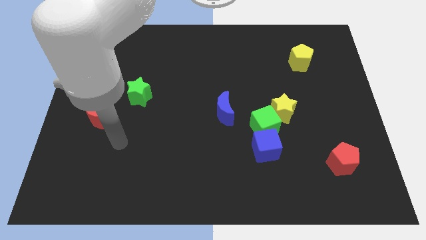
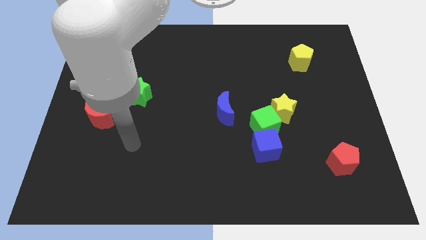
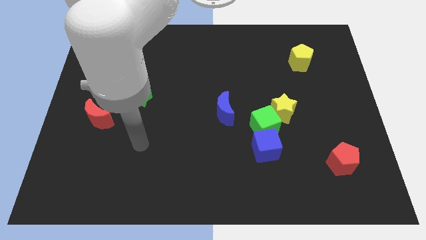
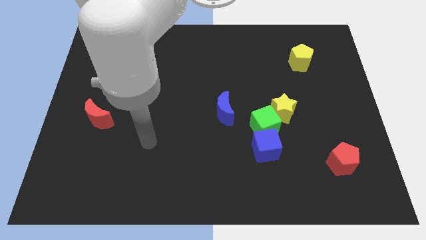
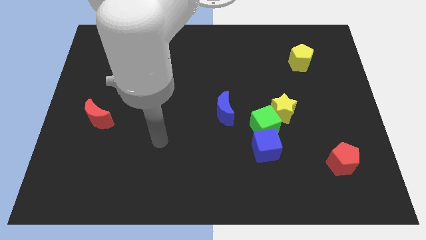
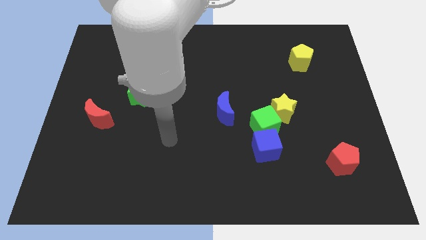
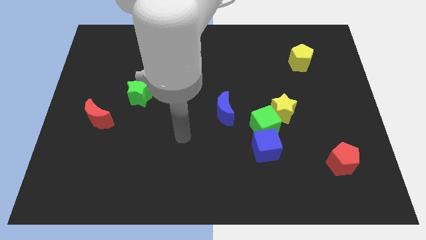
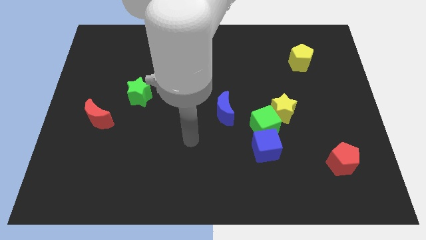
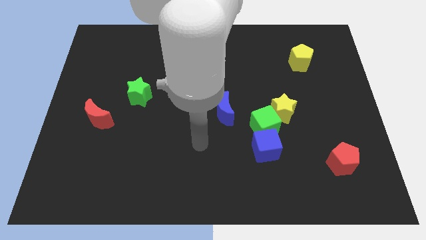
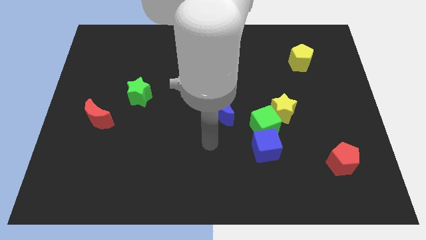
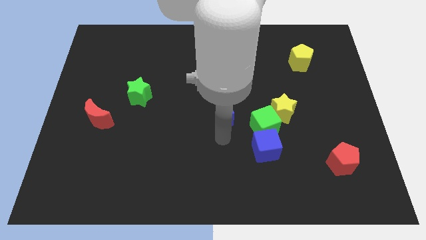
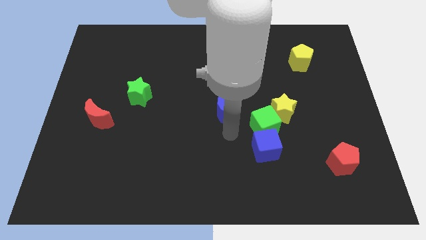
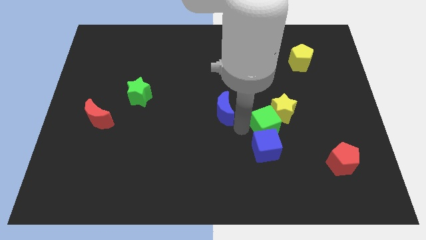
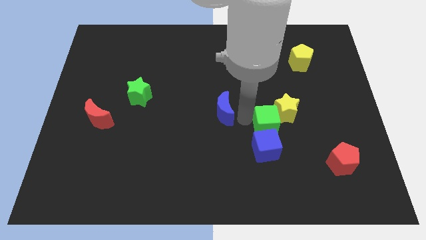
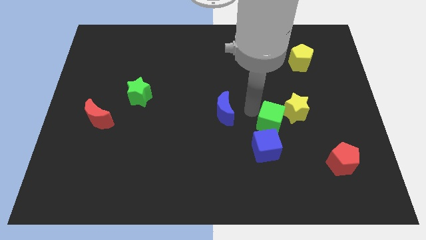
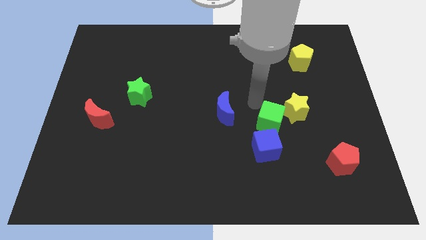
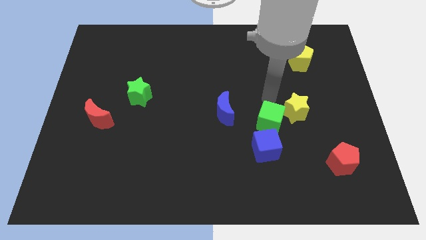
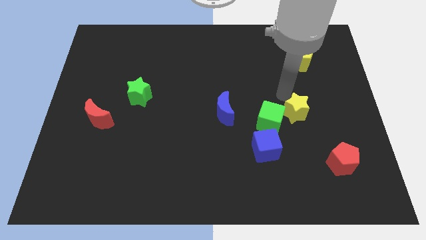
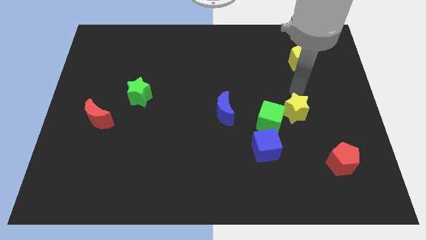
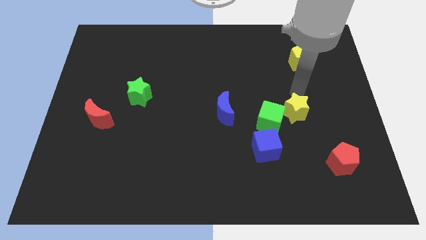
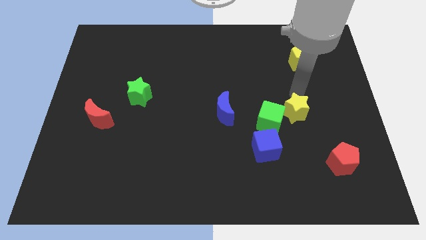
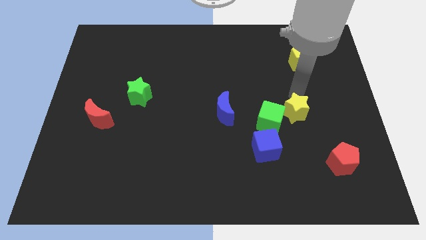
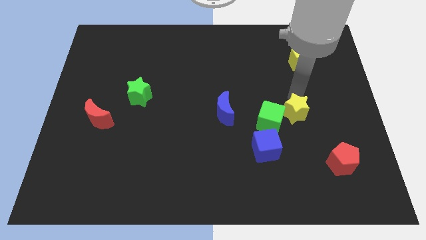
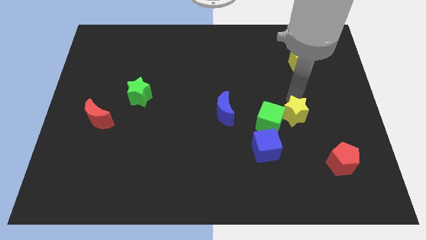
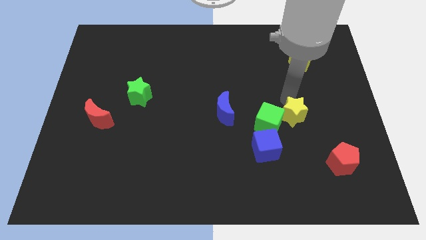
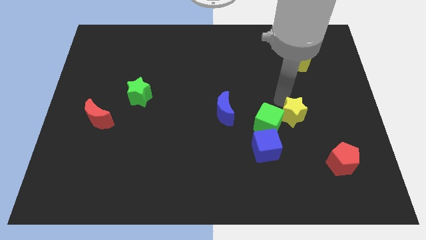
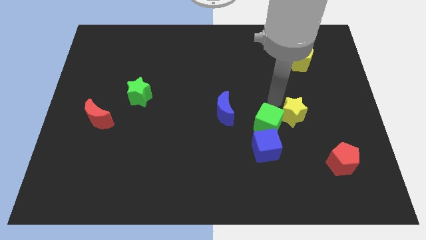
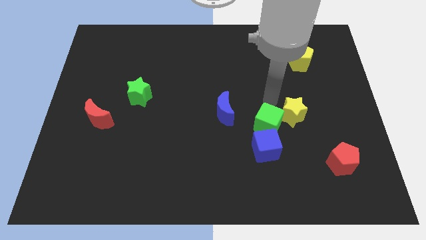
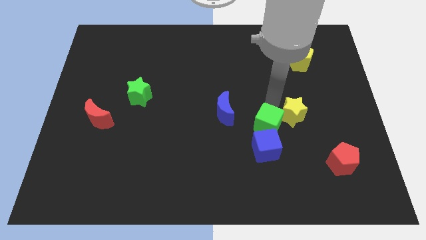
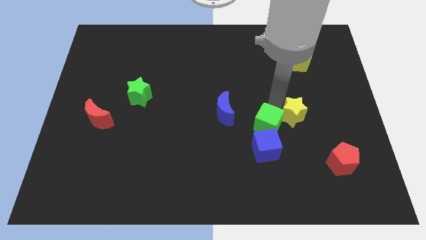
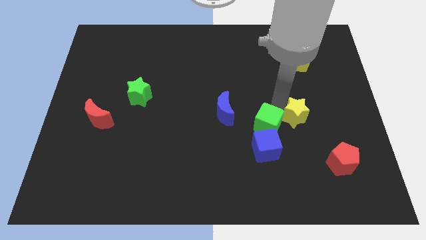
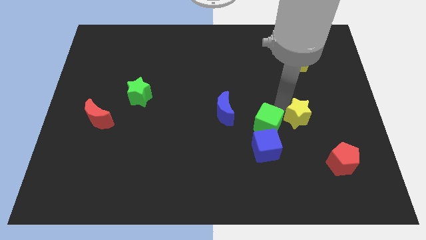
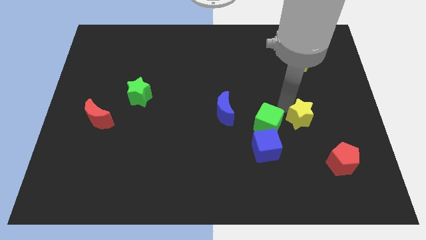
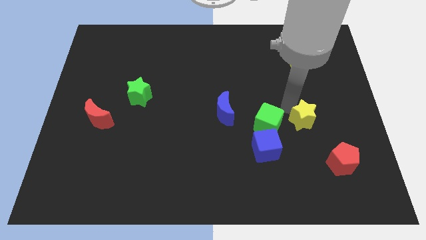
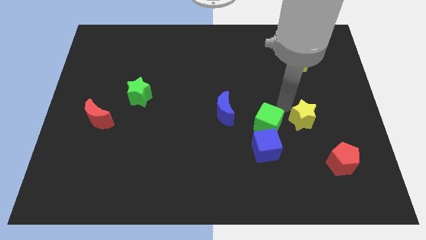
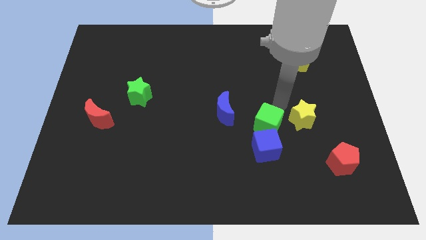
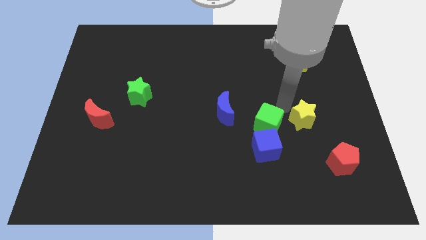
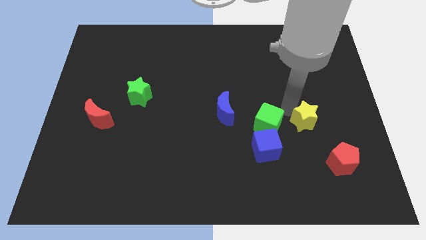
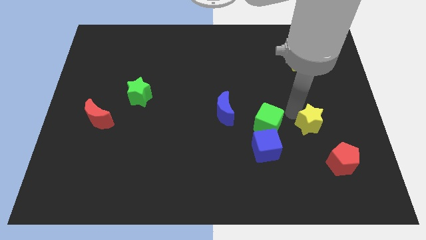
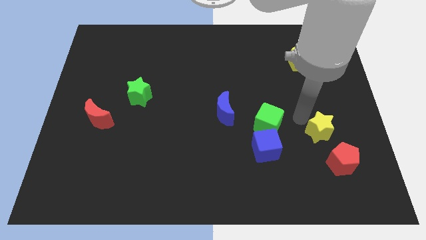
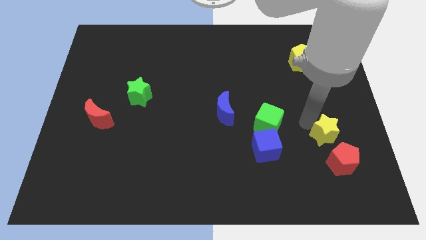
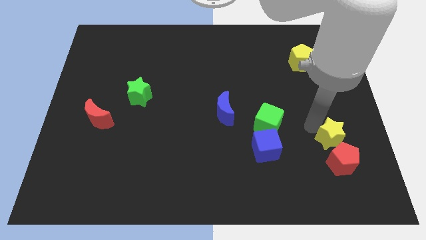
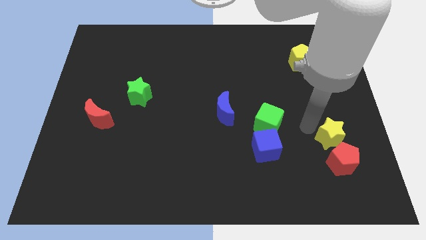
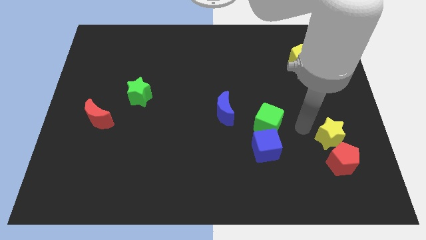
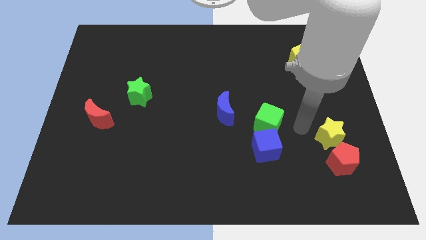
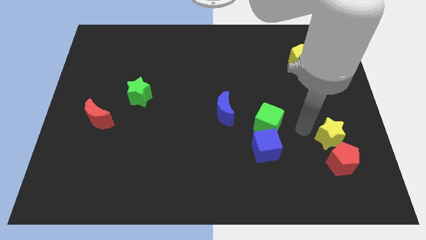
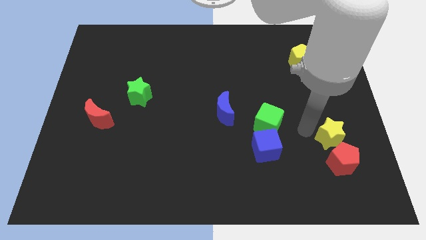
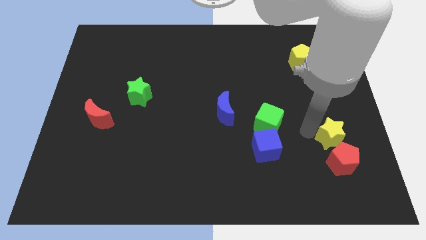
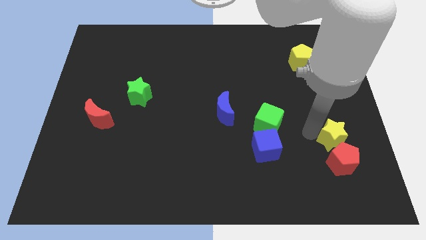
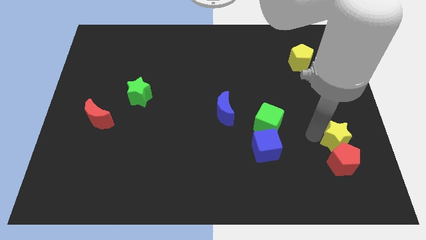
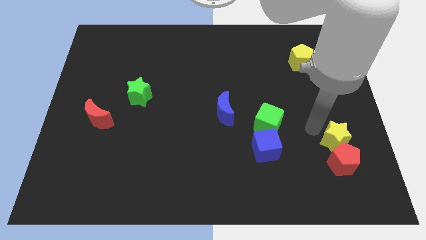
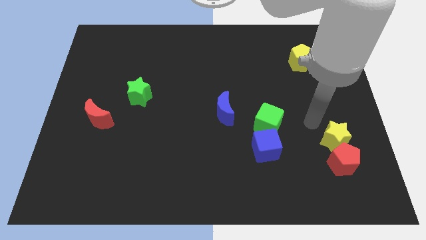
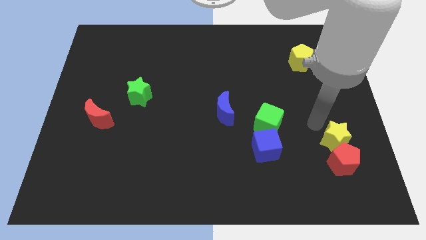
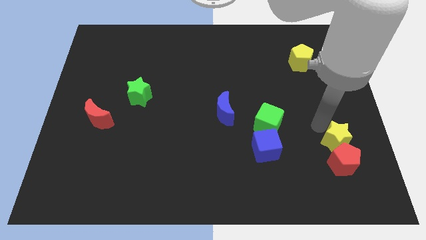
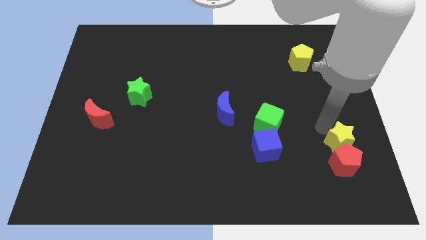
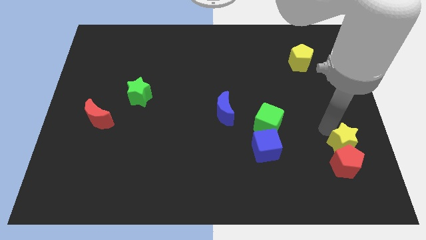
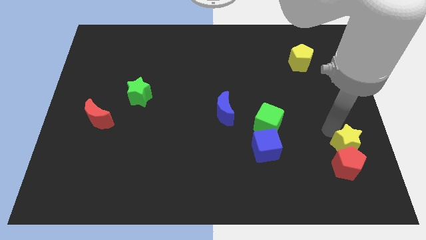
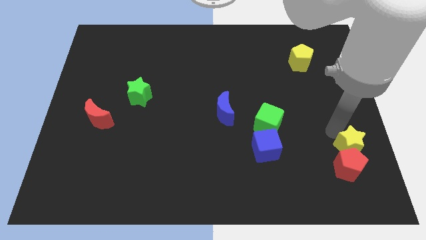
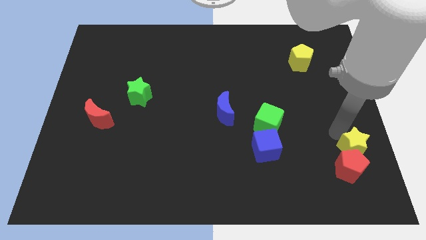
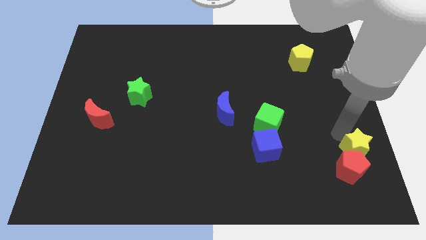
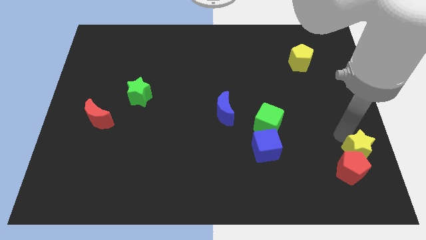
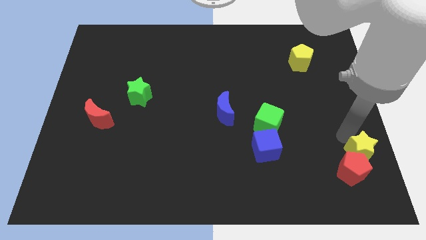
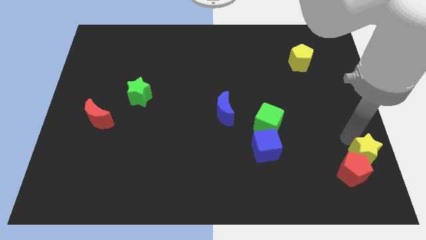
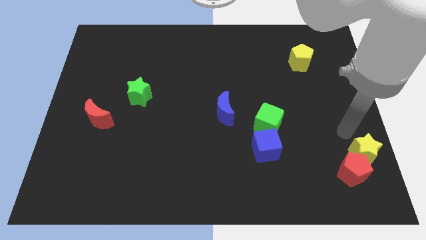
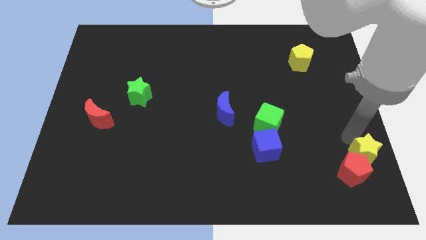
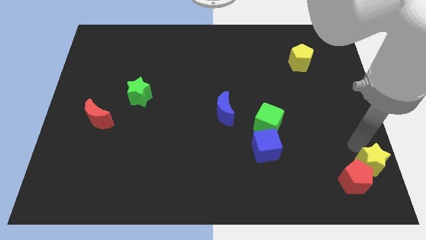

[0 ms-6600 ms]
move the yellow star to the bottom right
